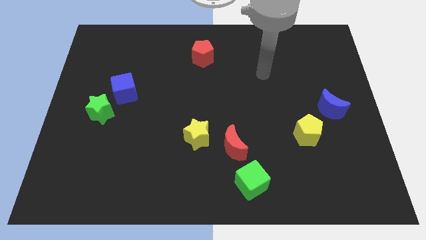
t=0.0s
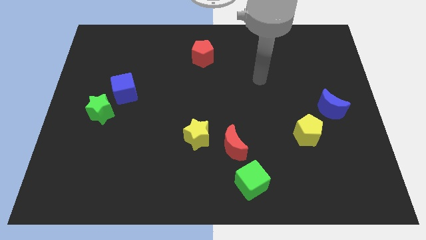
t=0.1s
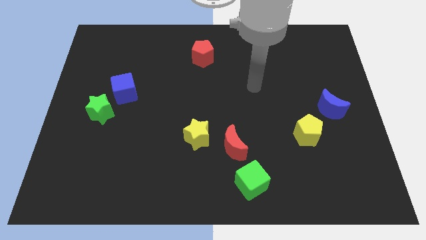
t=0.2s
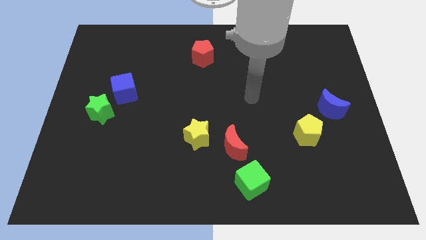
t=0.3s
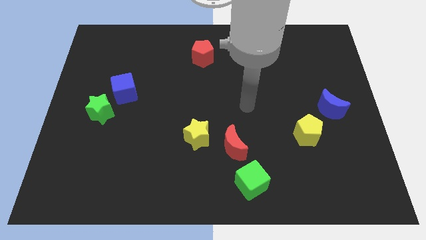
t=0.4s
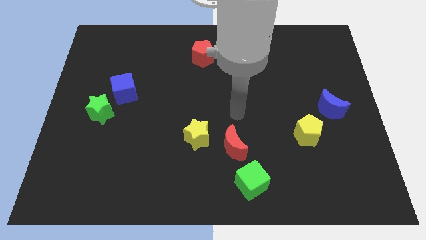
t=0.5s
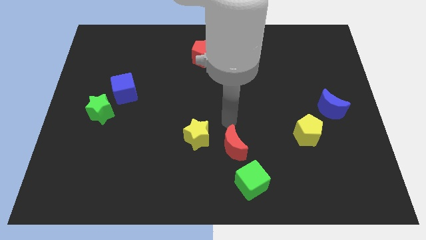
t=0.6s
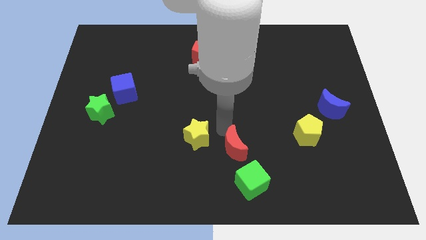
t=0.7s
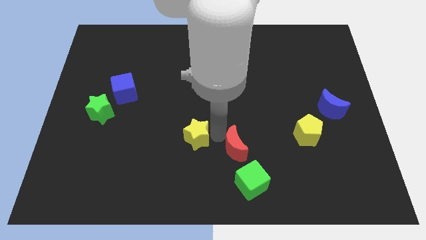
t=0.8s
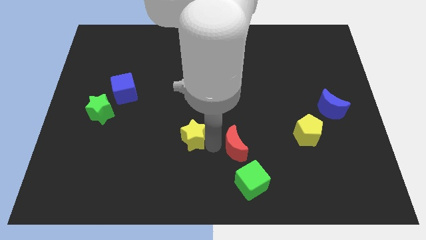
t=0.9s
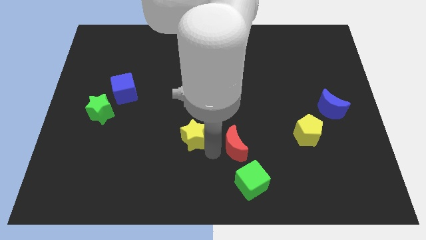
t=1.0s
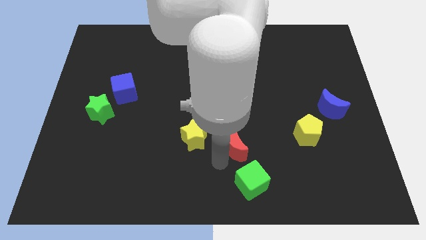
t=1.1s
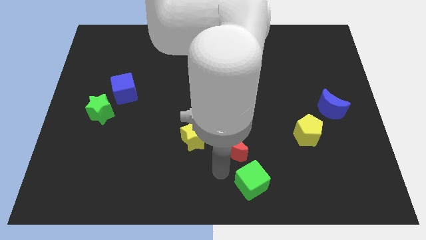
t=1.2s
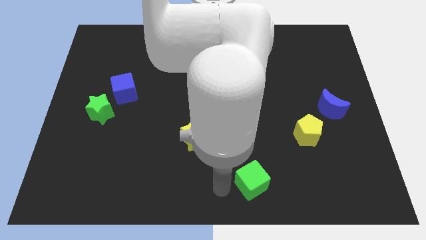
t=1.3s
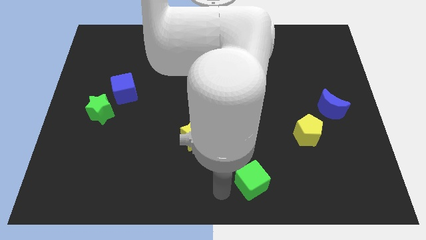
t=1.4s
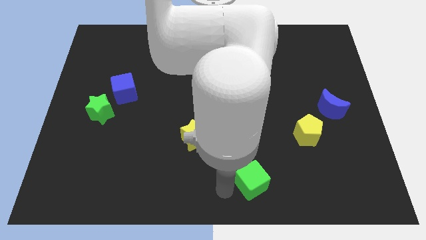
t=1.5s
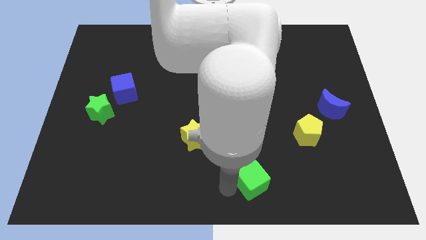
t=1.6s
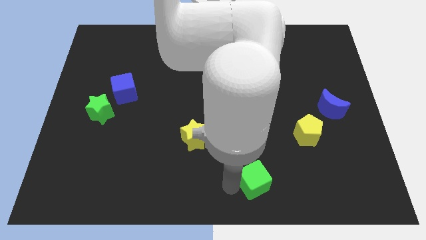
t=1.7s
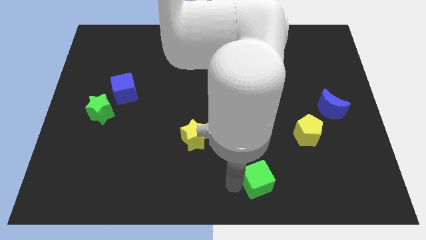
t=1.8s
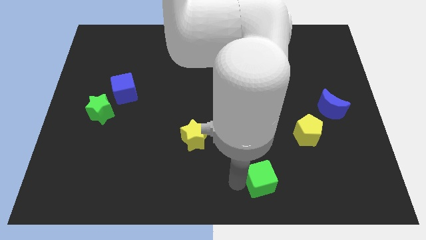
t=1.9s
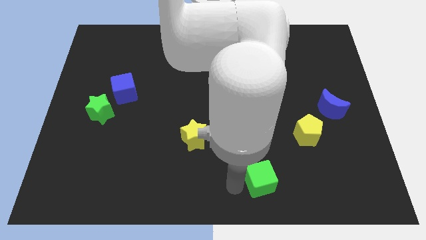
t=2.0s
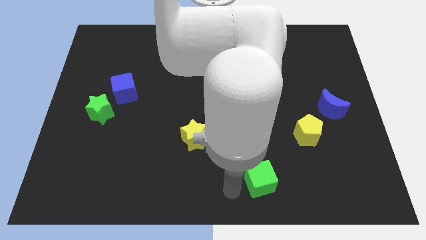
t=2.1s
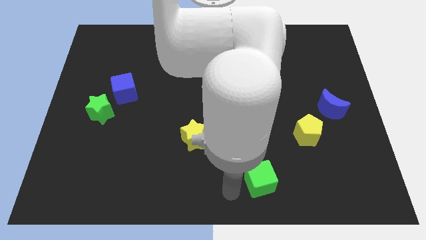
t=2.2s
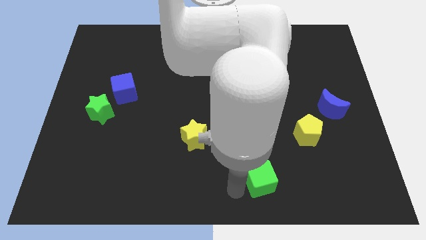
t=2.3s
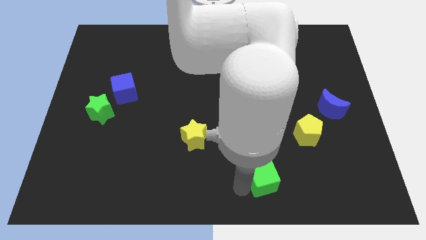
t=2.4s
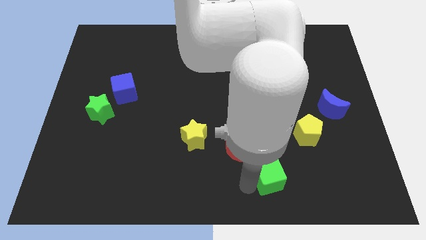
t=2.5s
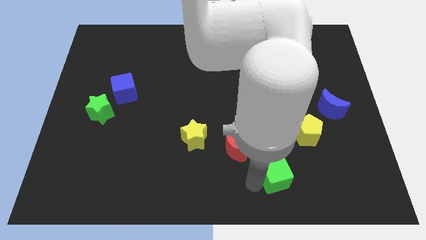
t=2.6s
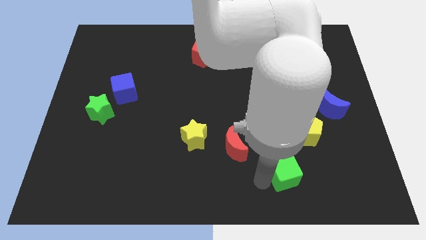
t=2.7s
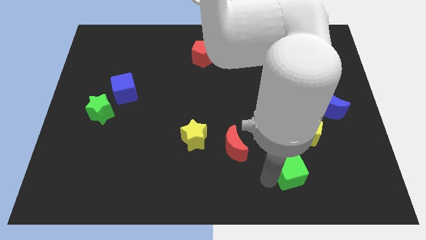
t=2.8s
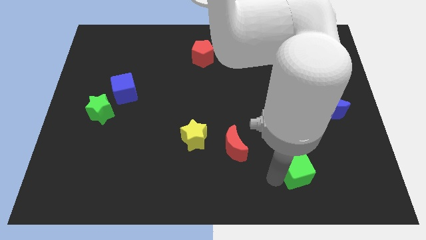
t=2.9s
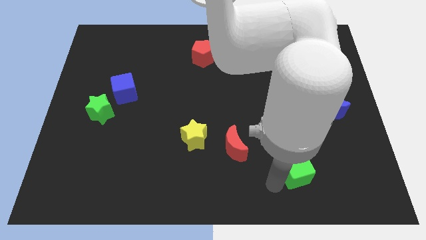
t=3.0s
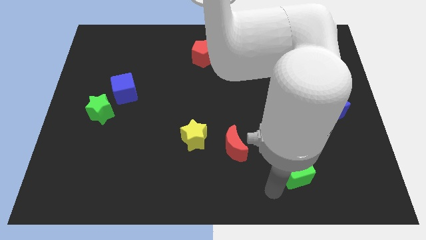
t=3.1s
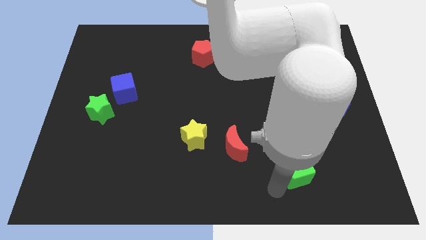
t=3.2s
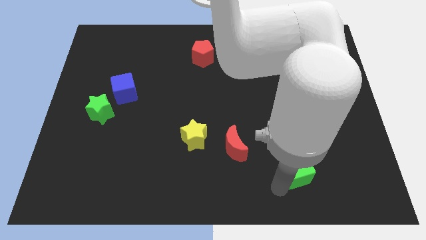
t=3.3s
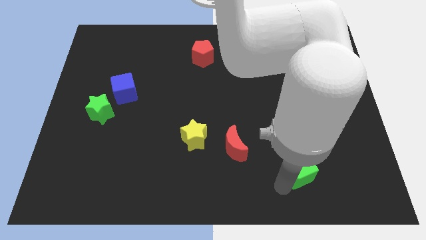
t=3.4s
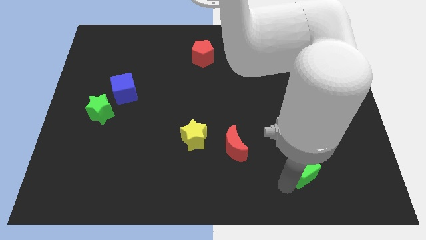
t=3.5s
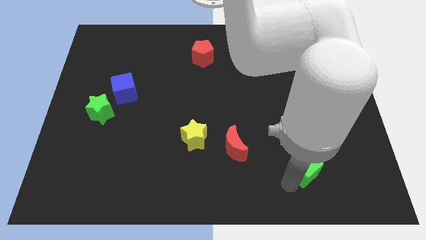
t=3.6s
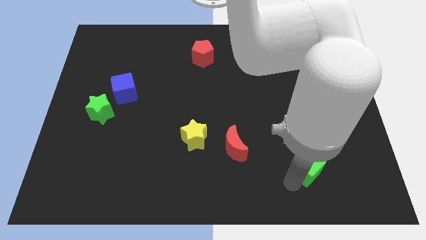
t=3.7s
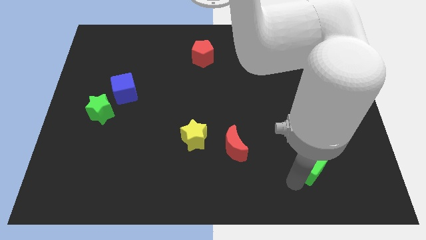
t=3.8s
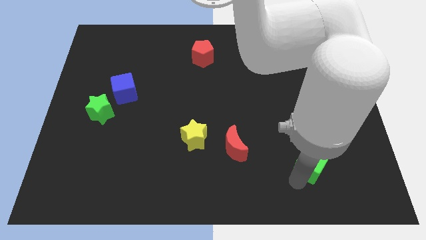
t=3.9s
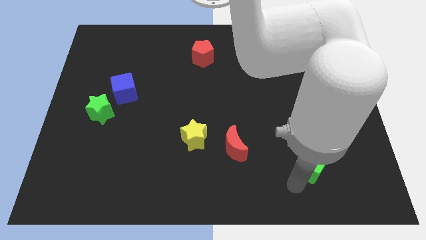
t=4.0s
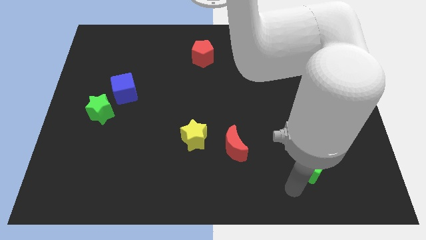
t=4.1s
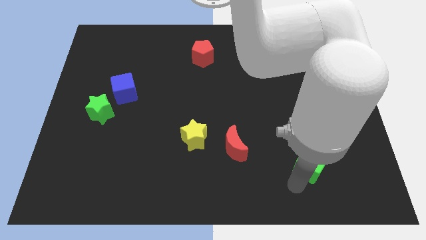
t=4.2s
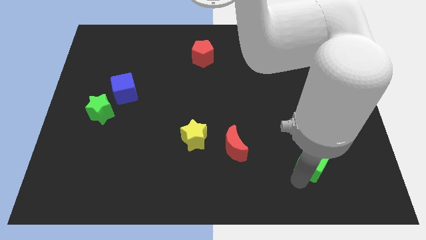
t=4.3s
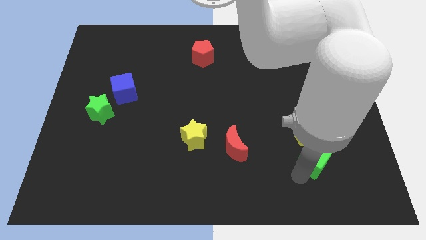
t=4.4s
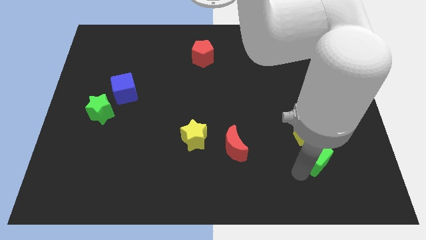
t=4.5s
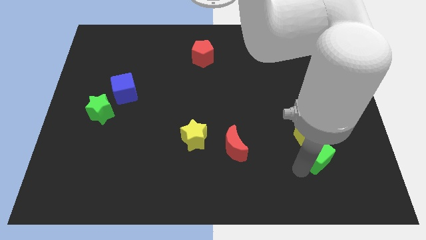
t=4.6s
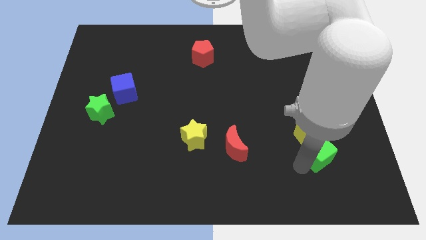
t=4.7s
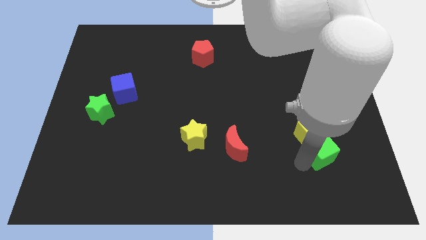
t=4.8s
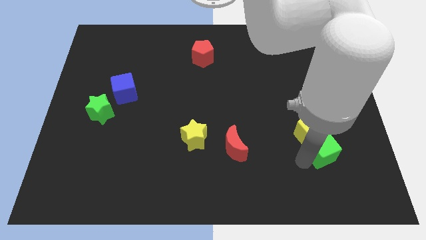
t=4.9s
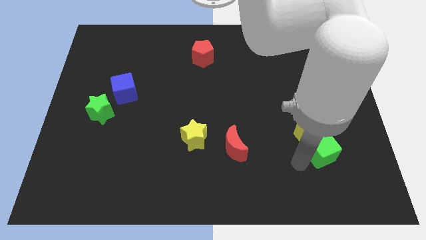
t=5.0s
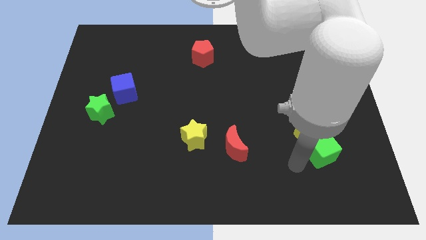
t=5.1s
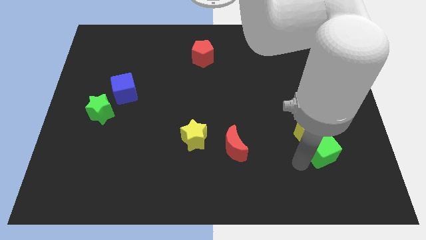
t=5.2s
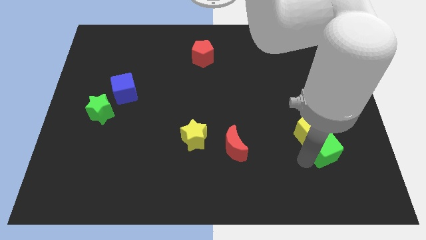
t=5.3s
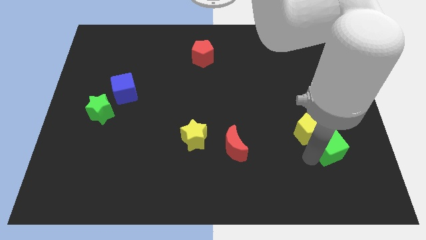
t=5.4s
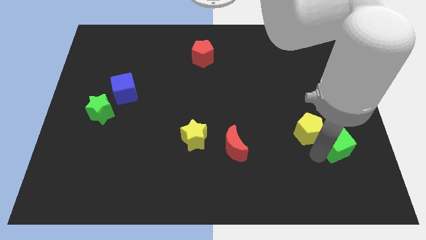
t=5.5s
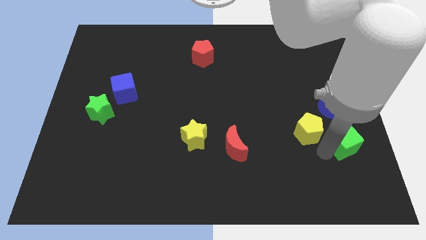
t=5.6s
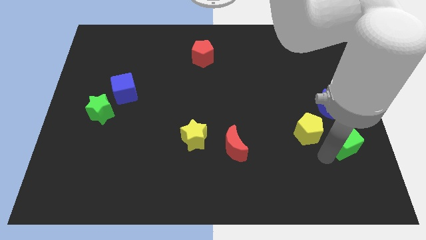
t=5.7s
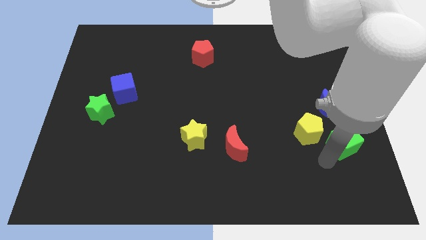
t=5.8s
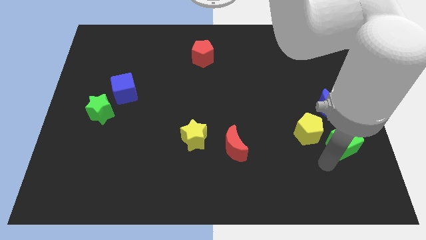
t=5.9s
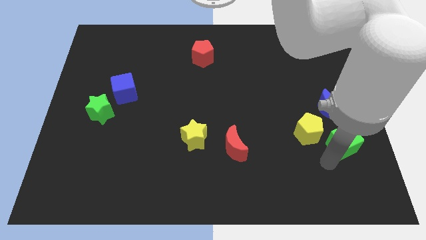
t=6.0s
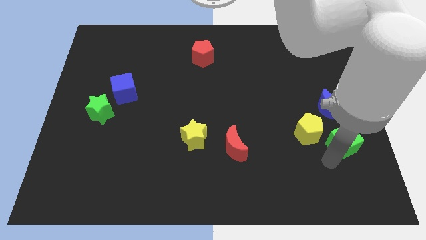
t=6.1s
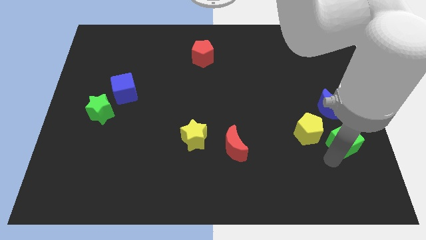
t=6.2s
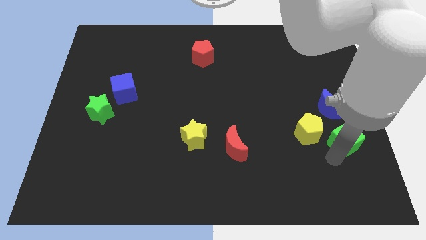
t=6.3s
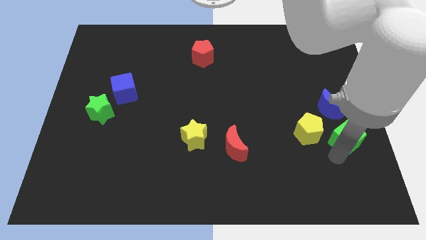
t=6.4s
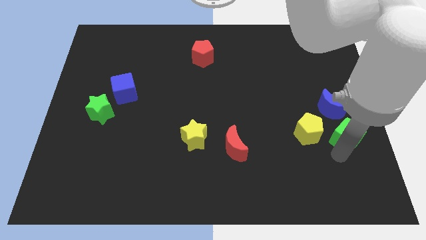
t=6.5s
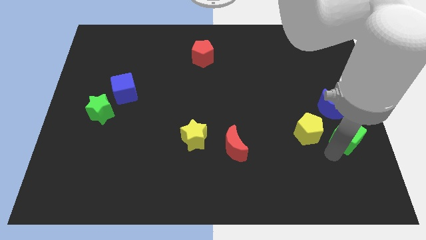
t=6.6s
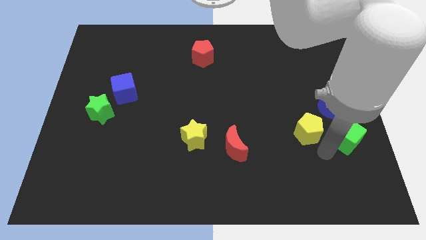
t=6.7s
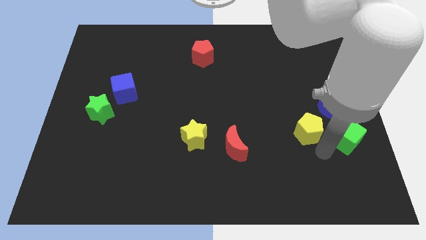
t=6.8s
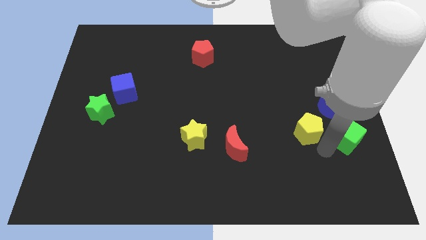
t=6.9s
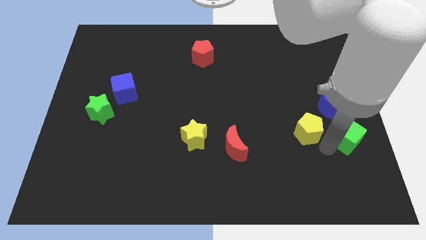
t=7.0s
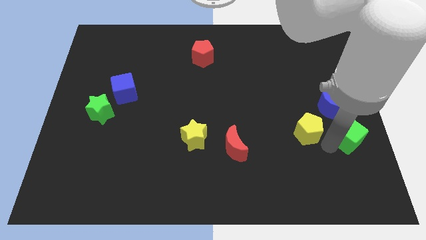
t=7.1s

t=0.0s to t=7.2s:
push the green cube to the right side
